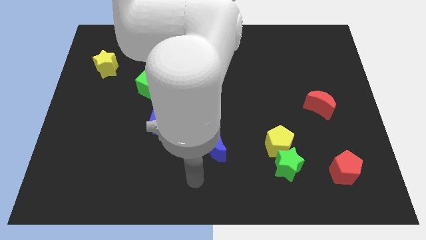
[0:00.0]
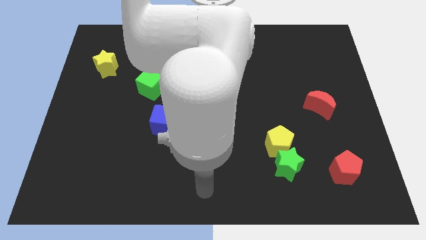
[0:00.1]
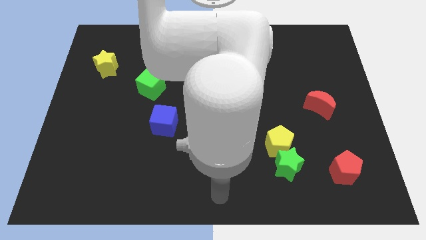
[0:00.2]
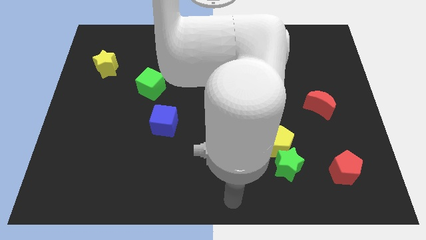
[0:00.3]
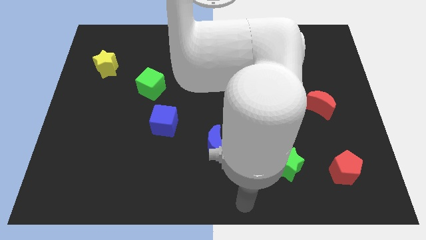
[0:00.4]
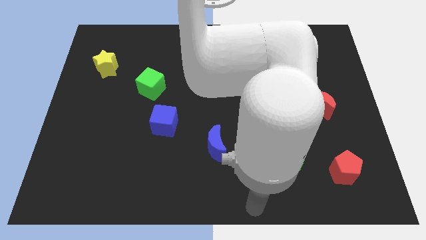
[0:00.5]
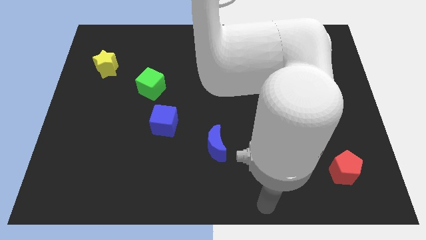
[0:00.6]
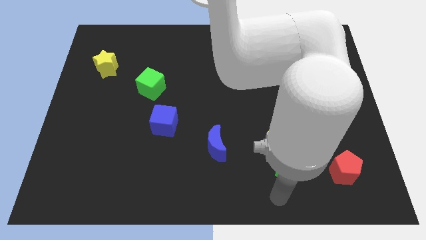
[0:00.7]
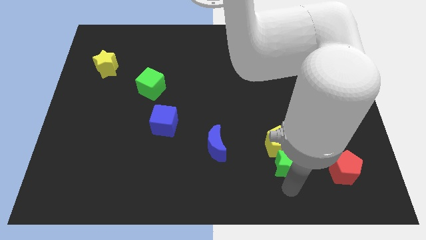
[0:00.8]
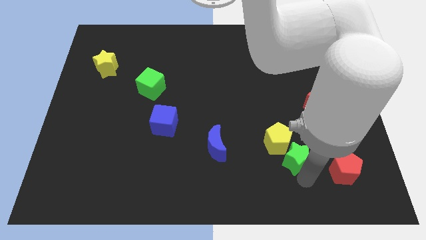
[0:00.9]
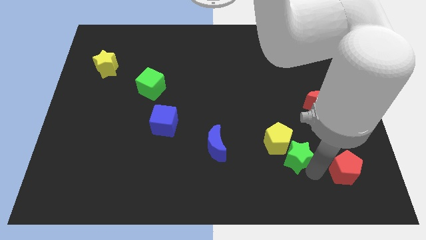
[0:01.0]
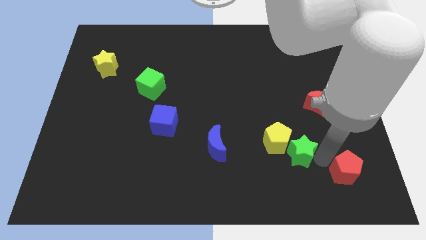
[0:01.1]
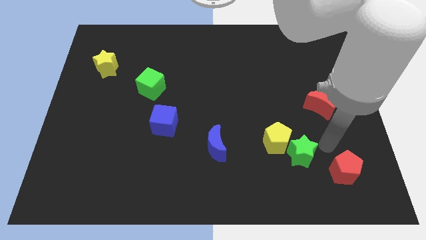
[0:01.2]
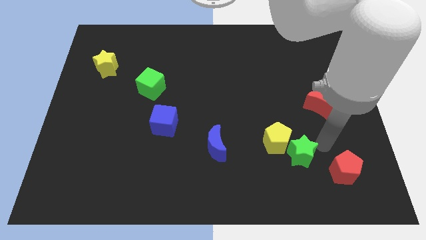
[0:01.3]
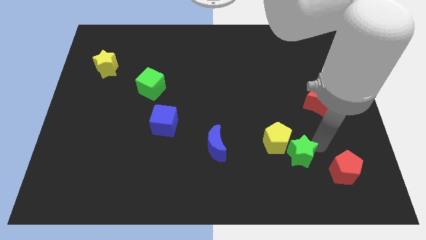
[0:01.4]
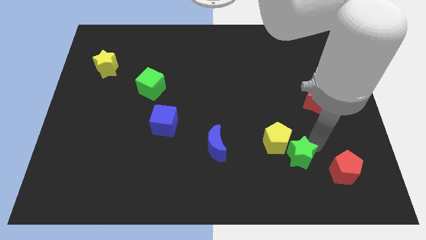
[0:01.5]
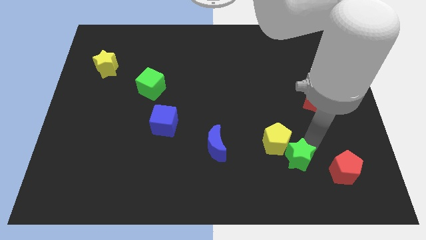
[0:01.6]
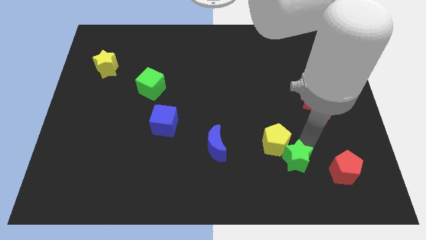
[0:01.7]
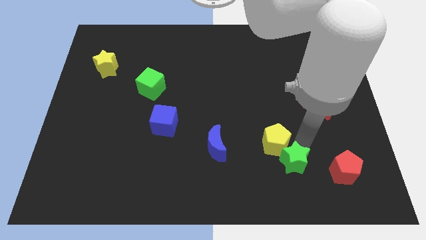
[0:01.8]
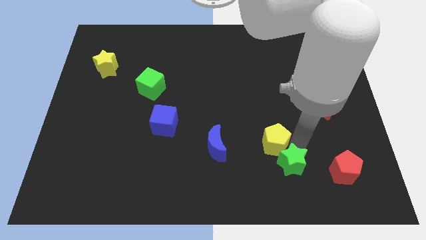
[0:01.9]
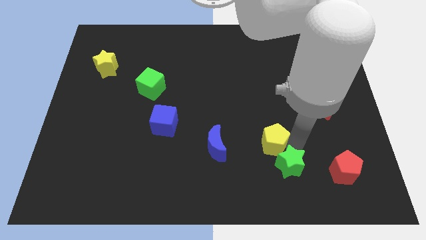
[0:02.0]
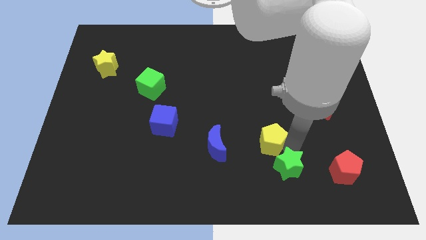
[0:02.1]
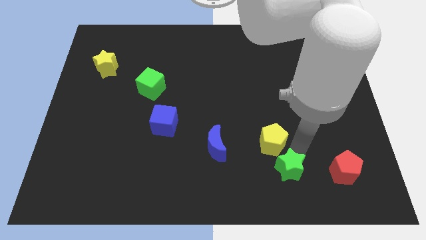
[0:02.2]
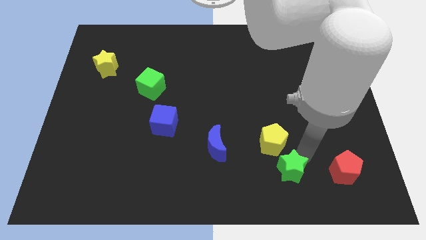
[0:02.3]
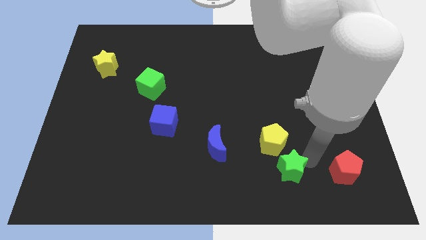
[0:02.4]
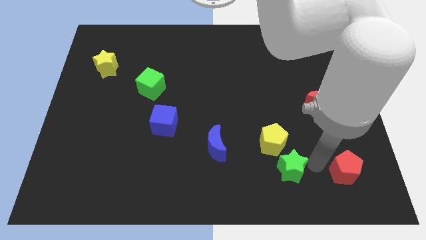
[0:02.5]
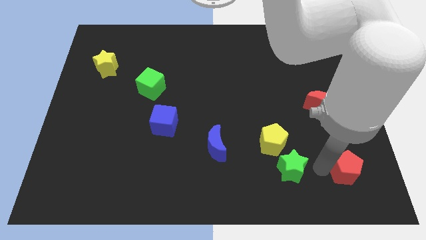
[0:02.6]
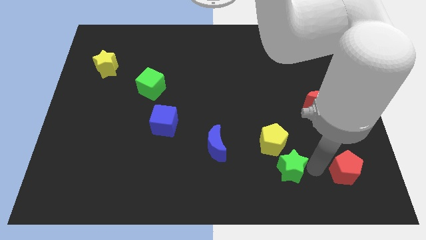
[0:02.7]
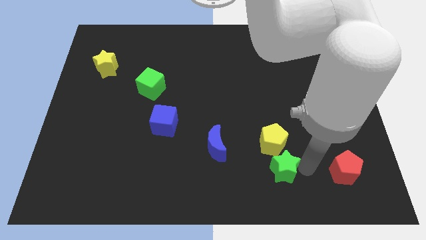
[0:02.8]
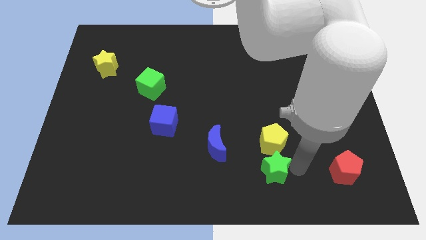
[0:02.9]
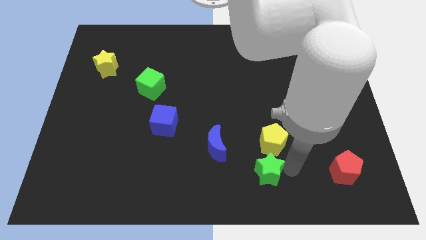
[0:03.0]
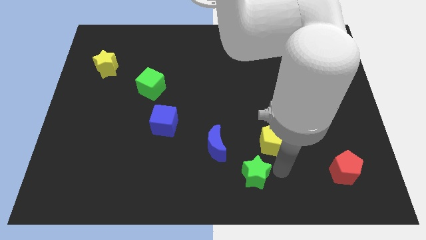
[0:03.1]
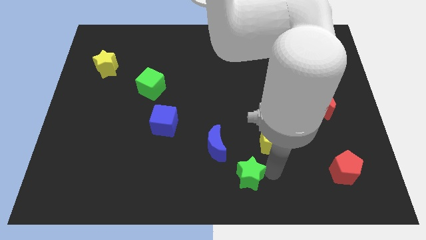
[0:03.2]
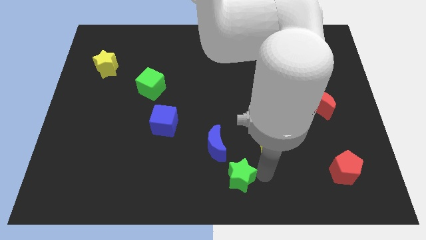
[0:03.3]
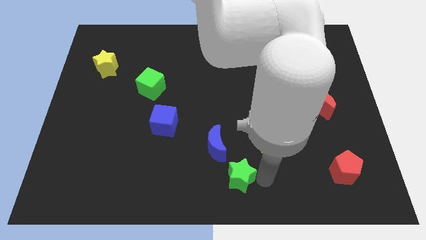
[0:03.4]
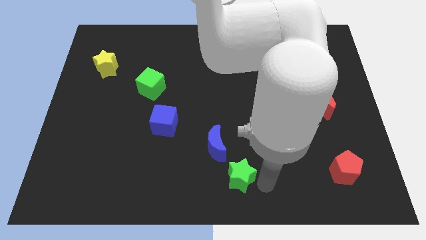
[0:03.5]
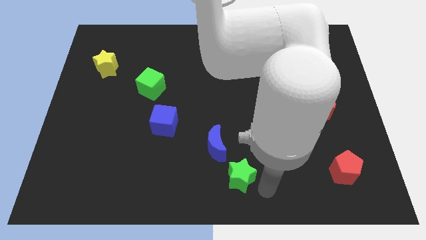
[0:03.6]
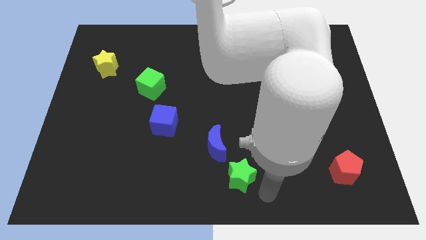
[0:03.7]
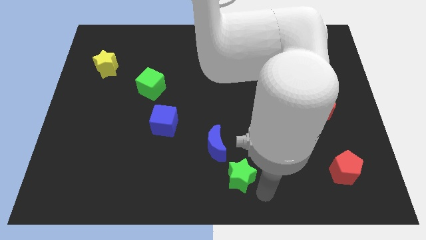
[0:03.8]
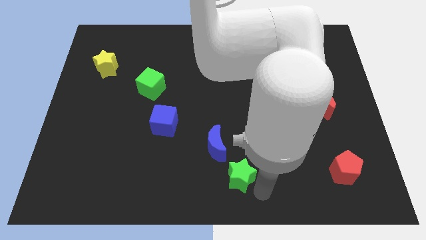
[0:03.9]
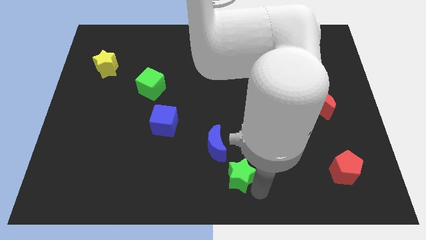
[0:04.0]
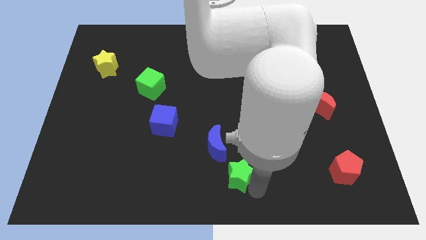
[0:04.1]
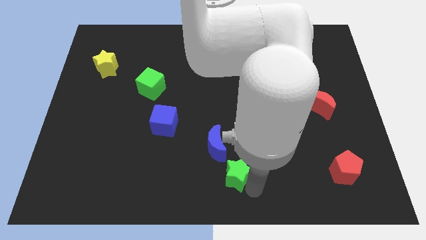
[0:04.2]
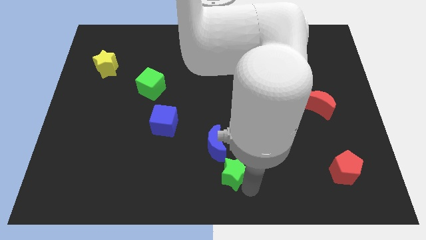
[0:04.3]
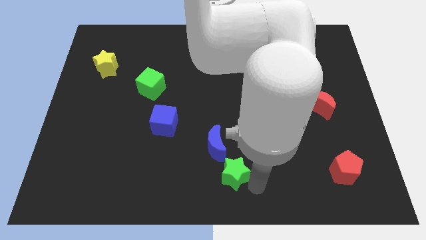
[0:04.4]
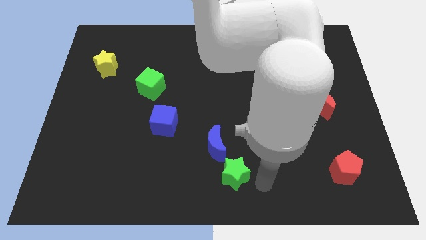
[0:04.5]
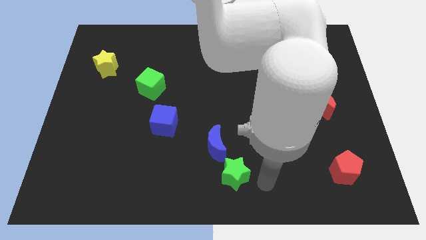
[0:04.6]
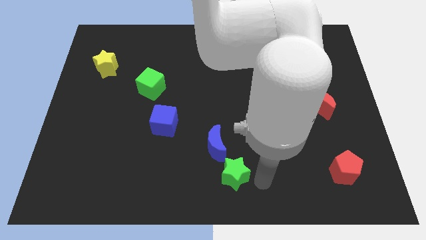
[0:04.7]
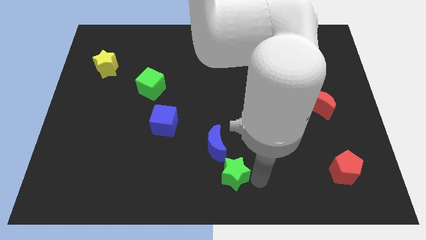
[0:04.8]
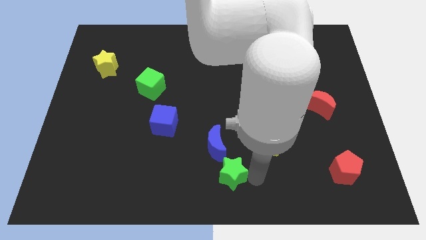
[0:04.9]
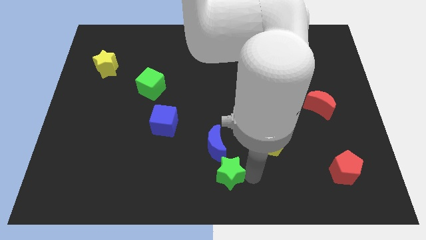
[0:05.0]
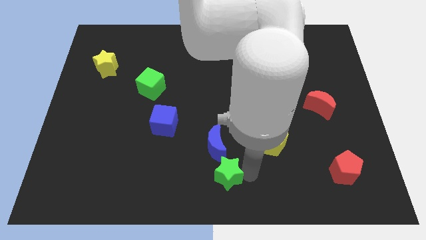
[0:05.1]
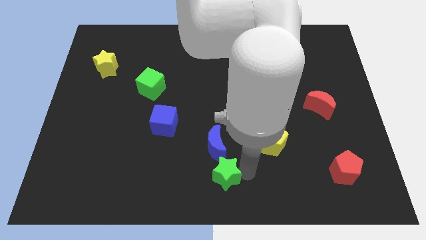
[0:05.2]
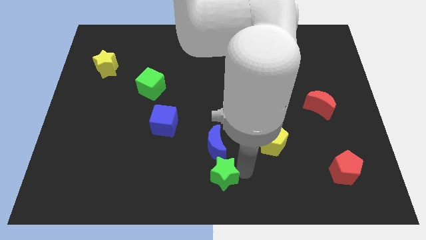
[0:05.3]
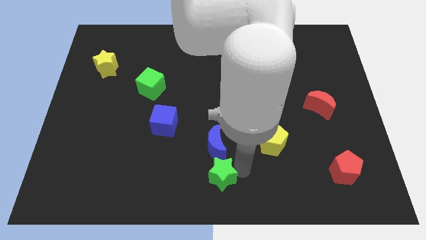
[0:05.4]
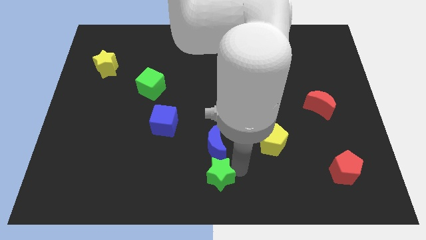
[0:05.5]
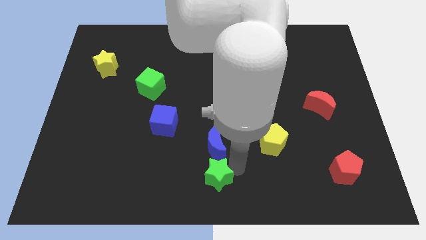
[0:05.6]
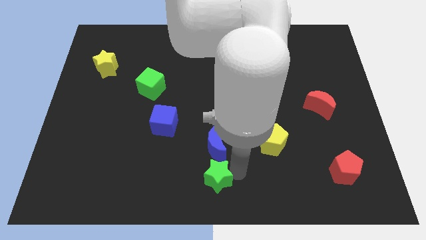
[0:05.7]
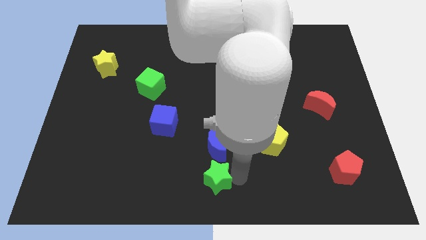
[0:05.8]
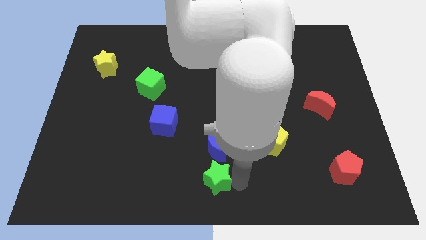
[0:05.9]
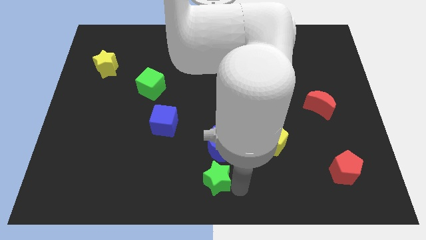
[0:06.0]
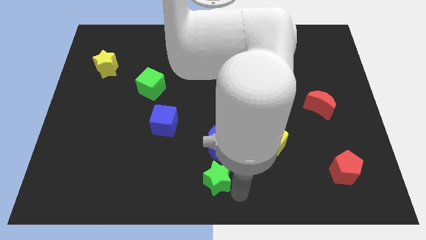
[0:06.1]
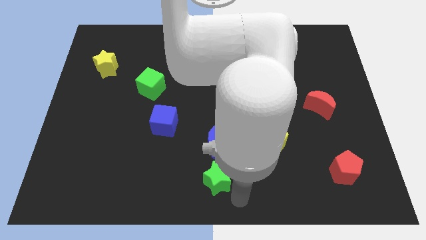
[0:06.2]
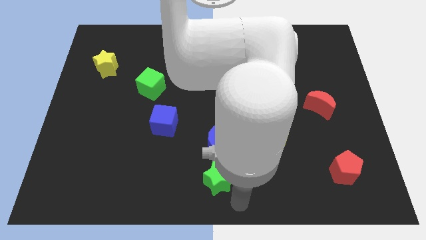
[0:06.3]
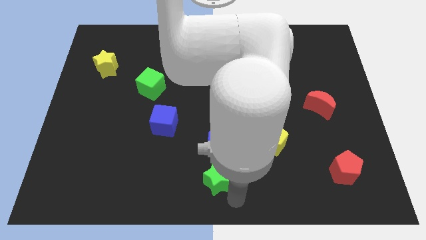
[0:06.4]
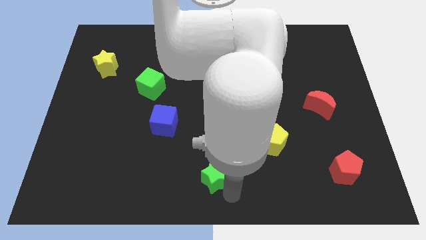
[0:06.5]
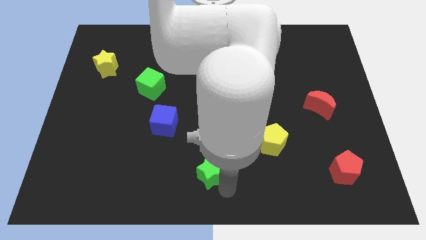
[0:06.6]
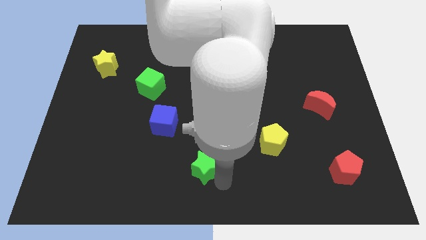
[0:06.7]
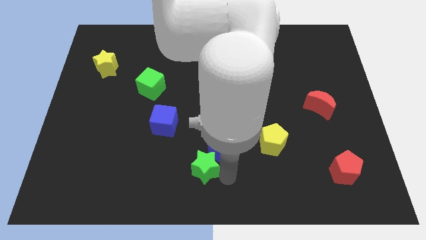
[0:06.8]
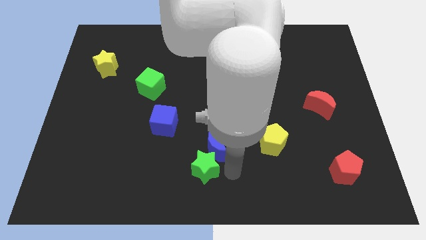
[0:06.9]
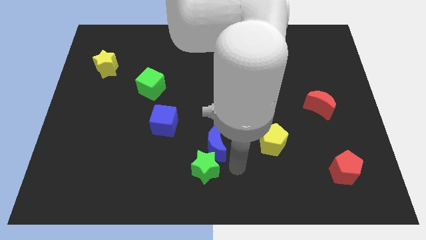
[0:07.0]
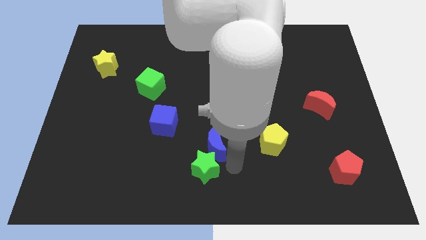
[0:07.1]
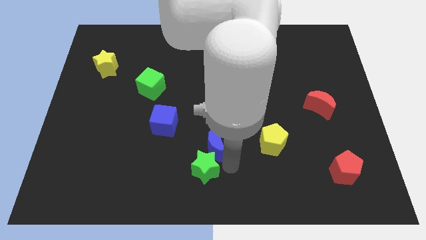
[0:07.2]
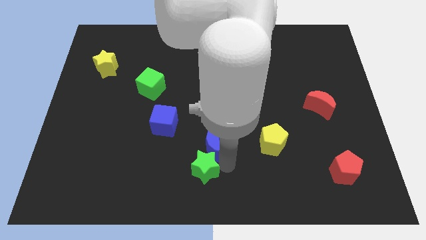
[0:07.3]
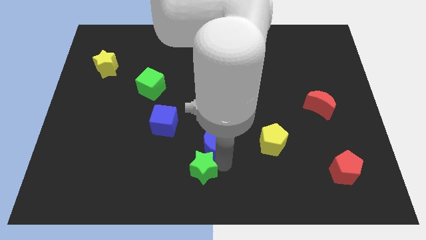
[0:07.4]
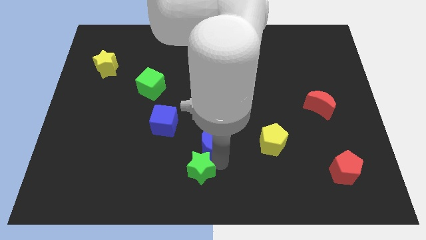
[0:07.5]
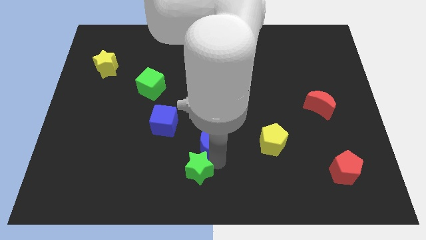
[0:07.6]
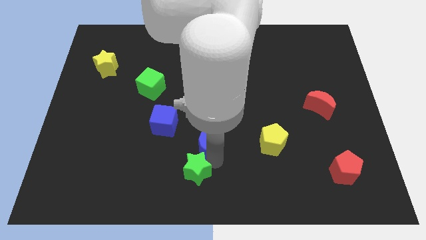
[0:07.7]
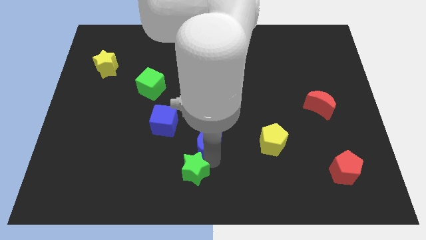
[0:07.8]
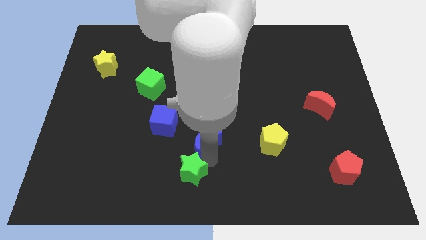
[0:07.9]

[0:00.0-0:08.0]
move the green star left

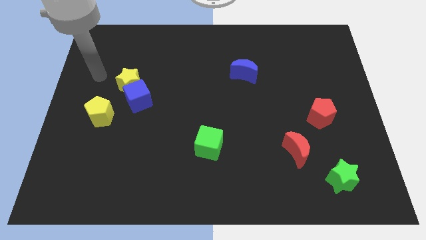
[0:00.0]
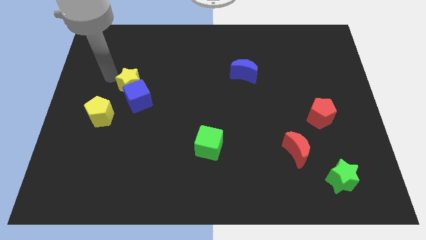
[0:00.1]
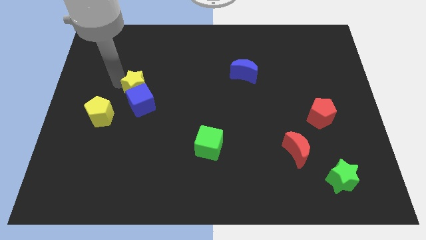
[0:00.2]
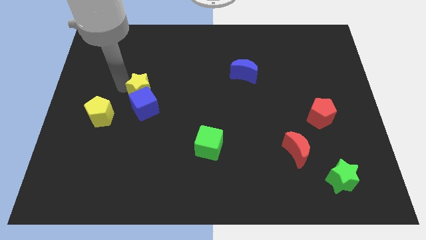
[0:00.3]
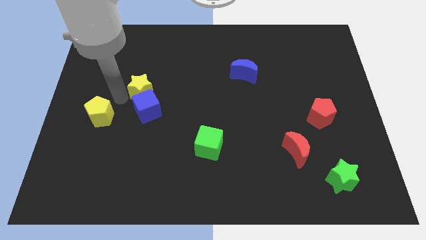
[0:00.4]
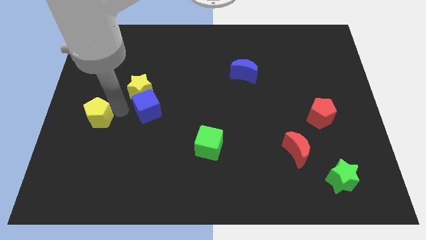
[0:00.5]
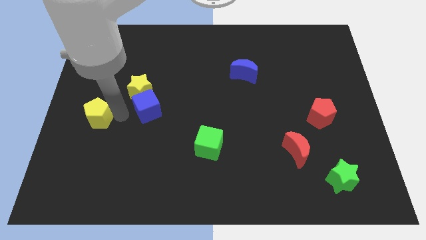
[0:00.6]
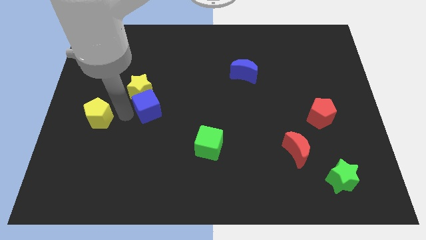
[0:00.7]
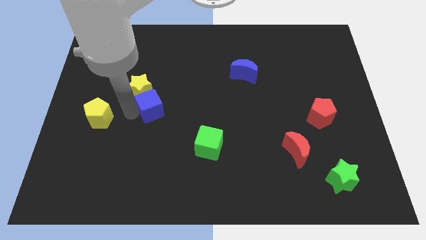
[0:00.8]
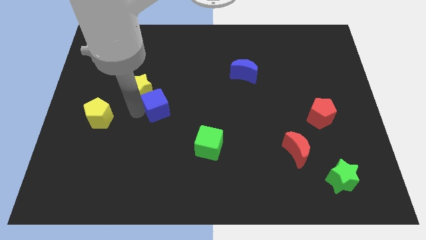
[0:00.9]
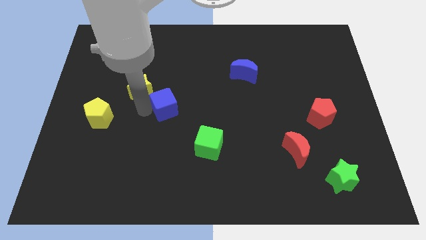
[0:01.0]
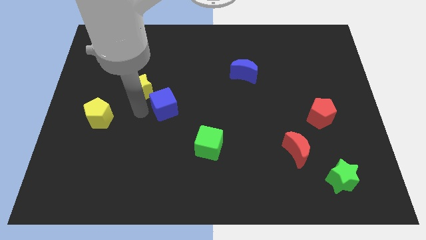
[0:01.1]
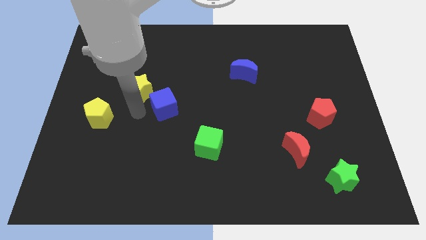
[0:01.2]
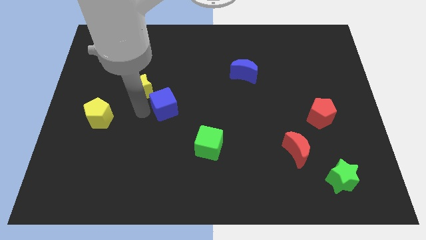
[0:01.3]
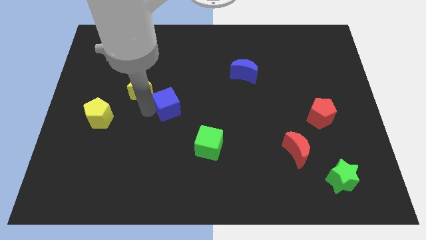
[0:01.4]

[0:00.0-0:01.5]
push the blue cube a bit right
